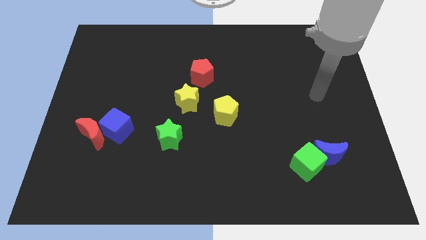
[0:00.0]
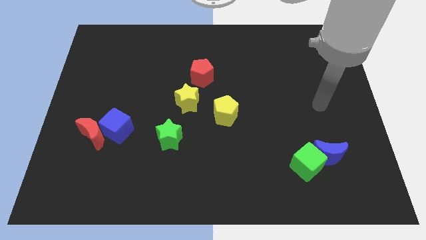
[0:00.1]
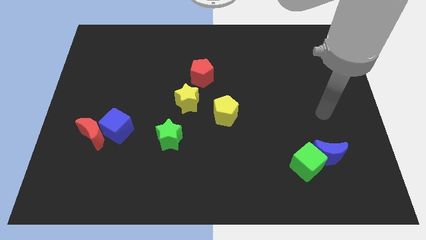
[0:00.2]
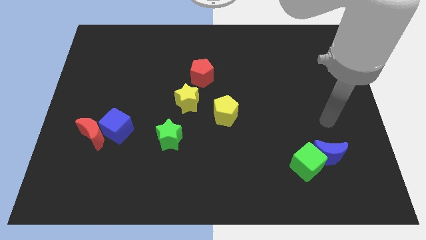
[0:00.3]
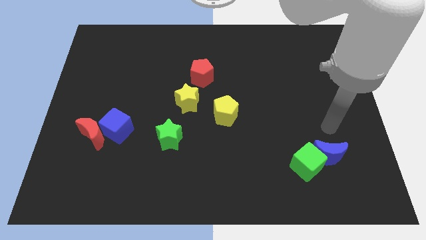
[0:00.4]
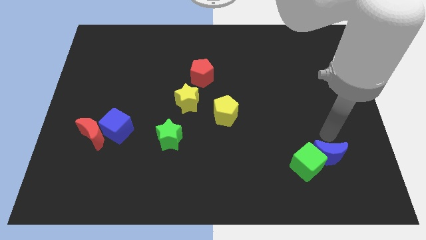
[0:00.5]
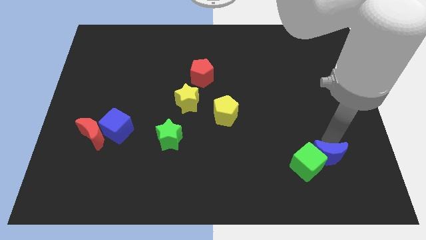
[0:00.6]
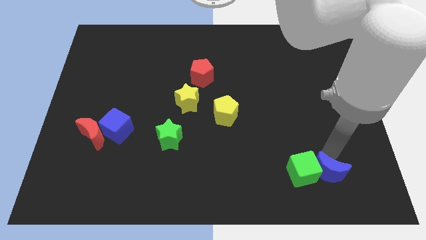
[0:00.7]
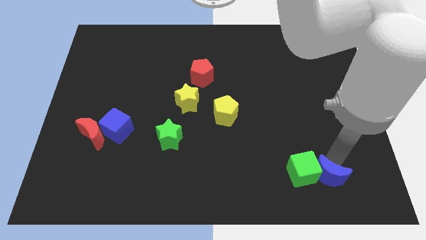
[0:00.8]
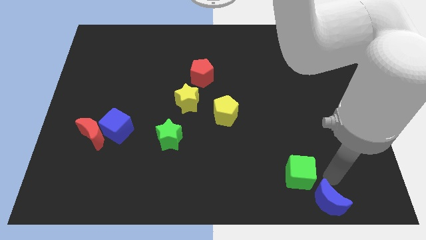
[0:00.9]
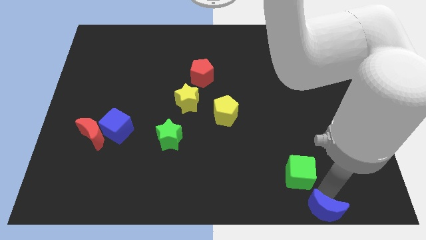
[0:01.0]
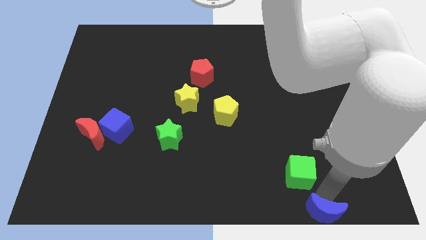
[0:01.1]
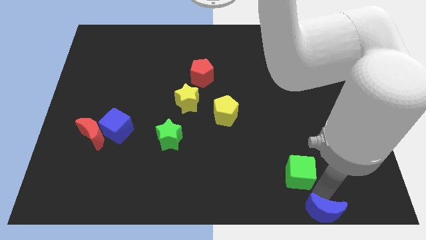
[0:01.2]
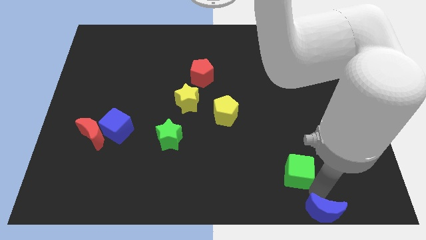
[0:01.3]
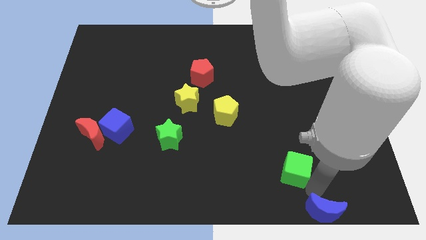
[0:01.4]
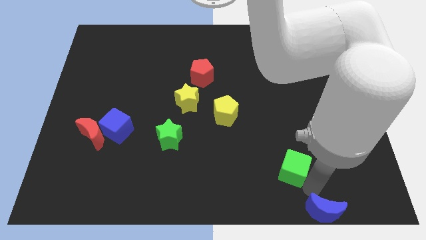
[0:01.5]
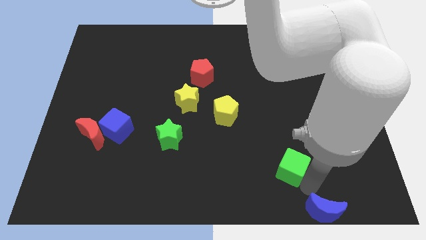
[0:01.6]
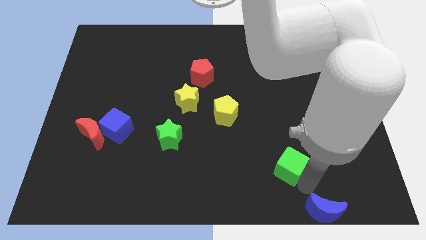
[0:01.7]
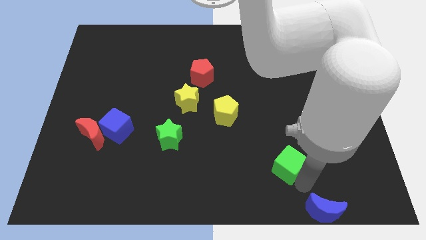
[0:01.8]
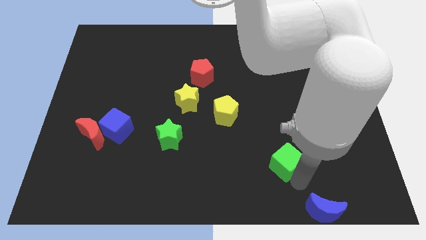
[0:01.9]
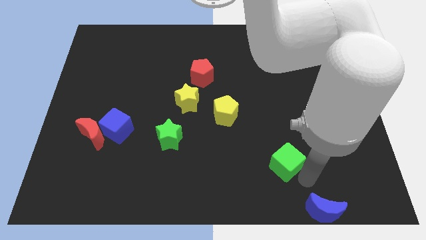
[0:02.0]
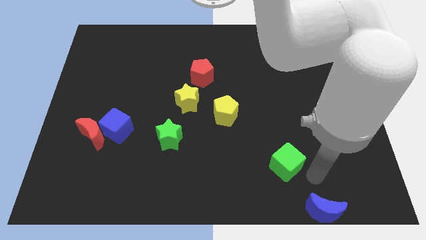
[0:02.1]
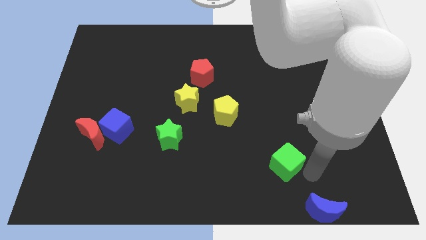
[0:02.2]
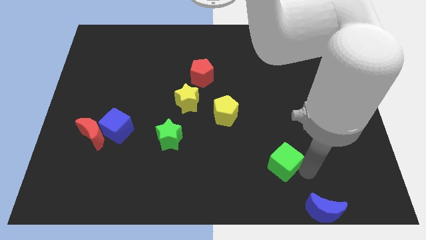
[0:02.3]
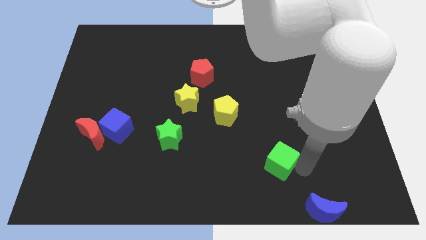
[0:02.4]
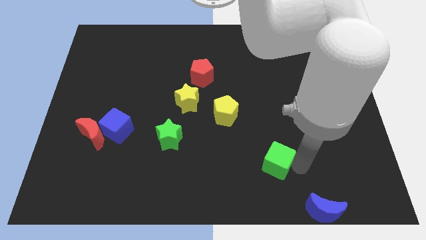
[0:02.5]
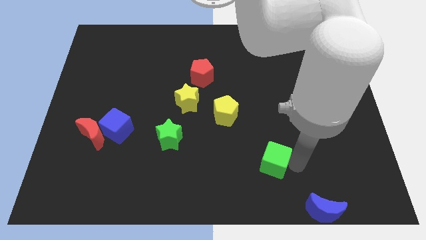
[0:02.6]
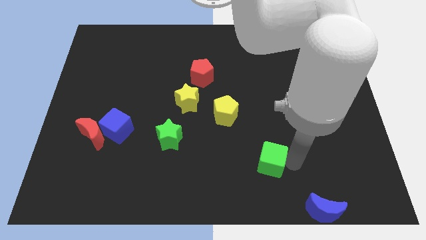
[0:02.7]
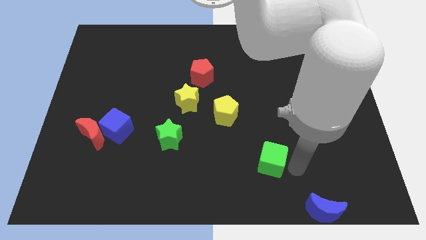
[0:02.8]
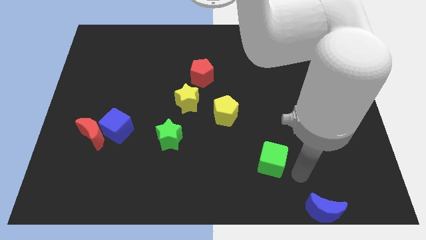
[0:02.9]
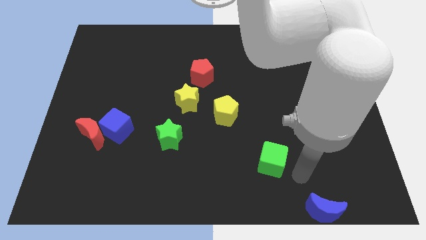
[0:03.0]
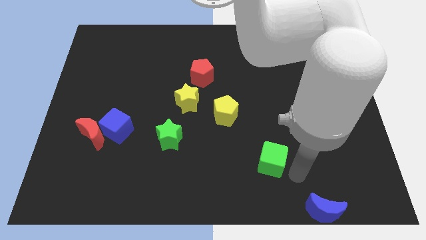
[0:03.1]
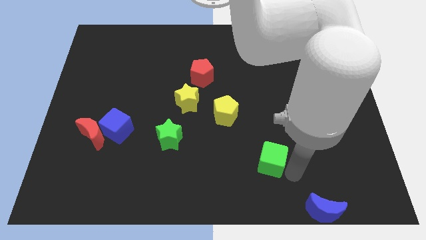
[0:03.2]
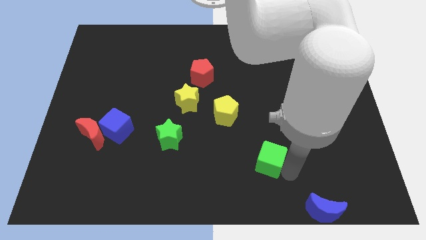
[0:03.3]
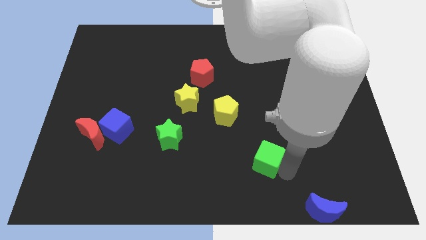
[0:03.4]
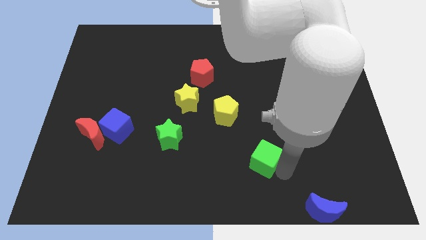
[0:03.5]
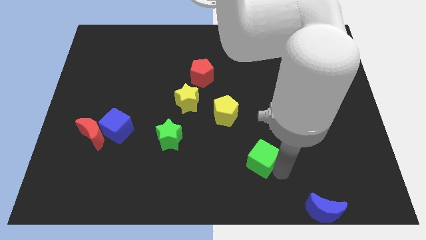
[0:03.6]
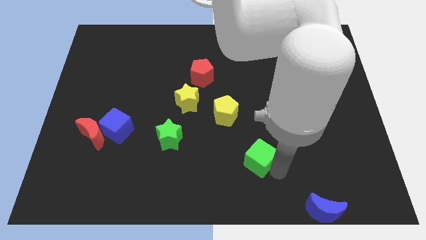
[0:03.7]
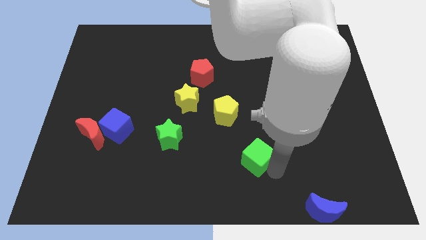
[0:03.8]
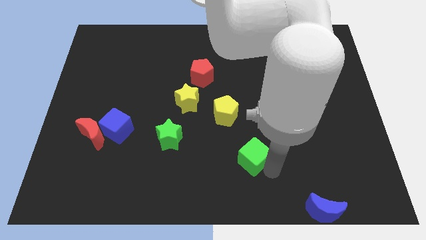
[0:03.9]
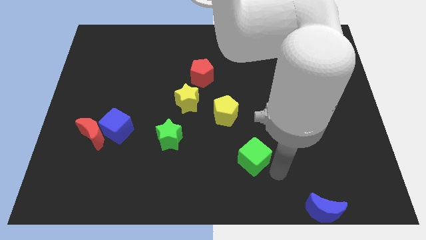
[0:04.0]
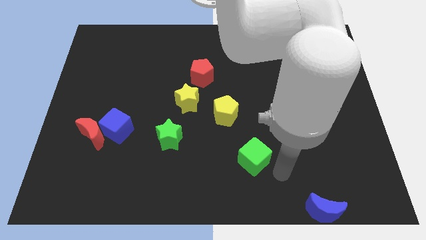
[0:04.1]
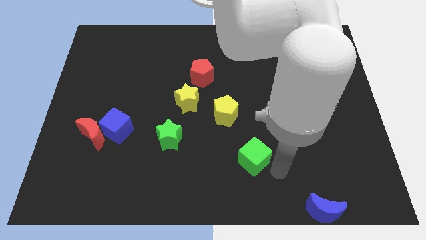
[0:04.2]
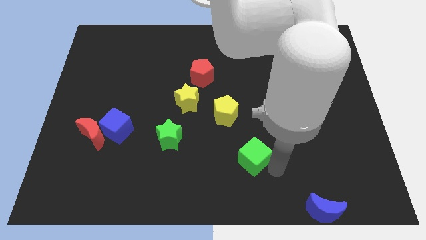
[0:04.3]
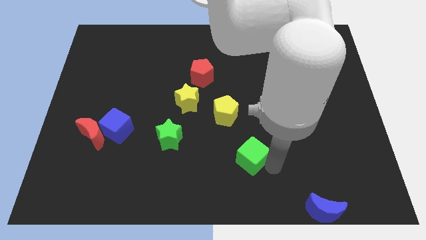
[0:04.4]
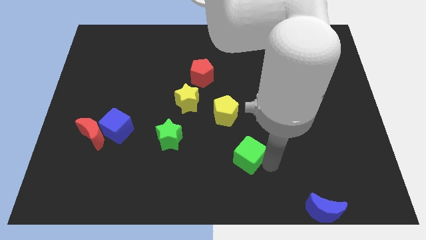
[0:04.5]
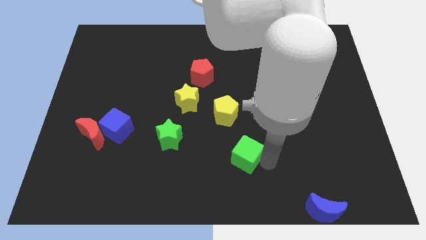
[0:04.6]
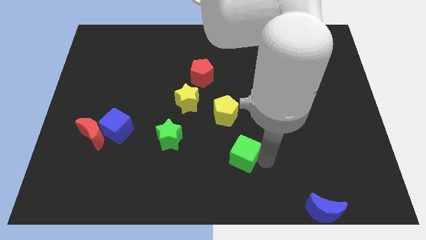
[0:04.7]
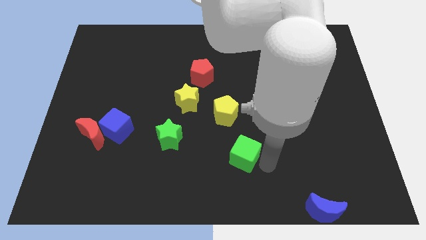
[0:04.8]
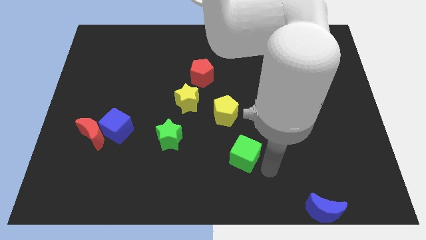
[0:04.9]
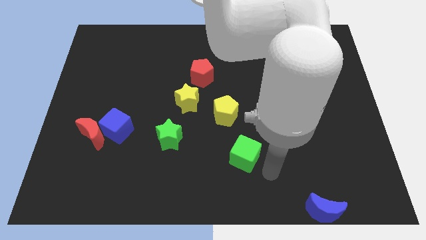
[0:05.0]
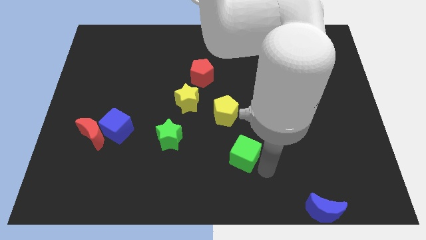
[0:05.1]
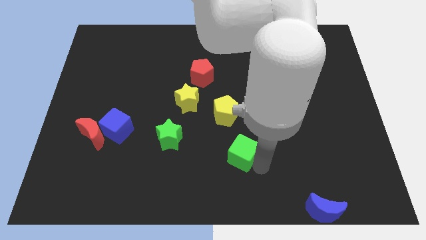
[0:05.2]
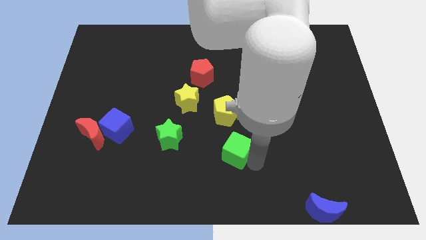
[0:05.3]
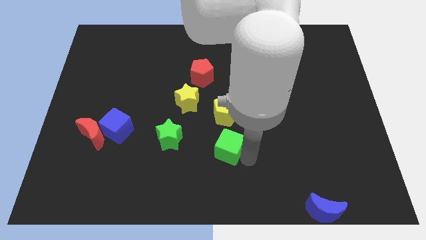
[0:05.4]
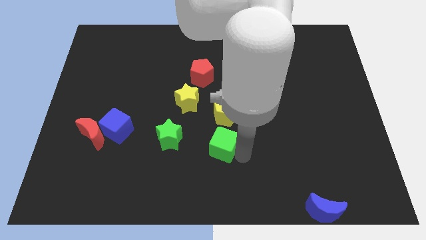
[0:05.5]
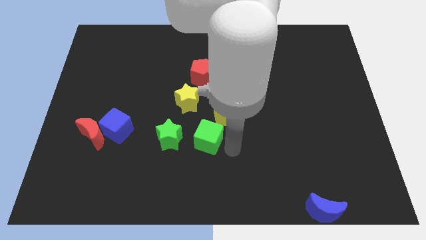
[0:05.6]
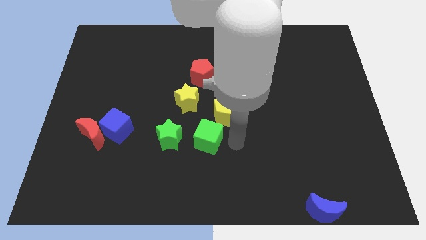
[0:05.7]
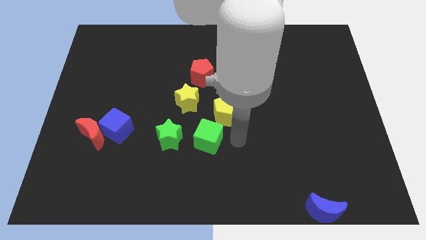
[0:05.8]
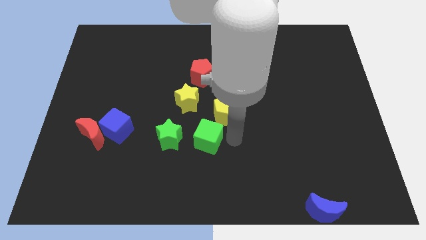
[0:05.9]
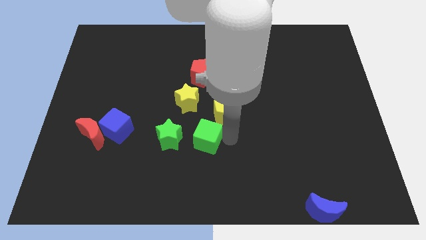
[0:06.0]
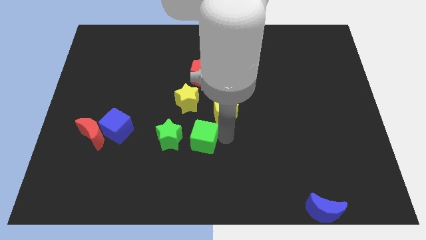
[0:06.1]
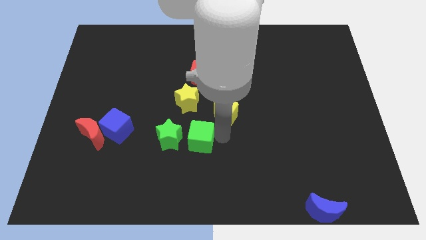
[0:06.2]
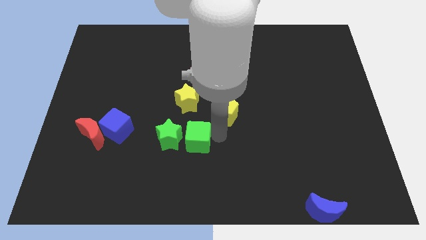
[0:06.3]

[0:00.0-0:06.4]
push the green cube to the green star

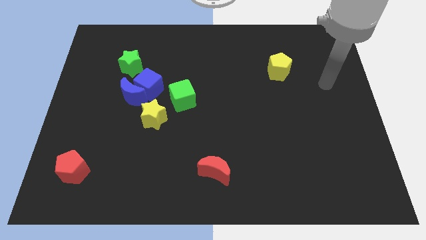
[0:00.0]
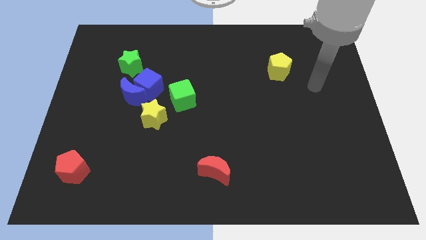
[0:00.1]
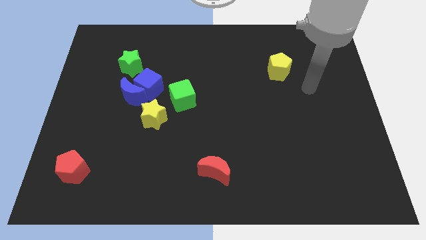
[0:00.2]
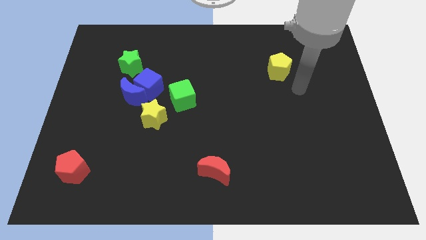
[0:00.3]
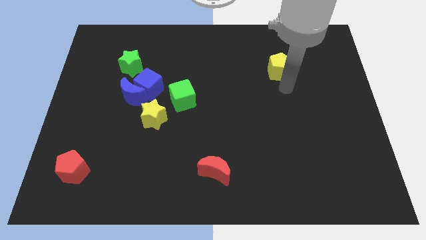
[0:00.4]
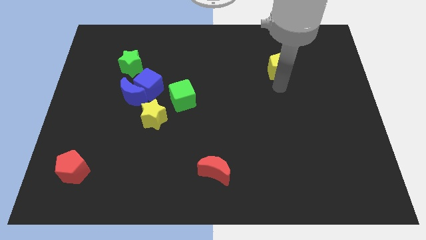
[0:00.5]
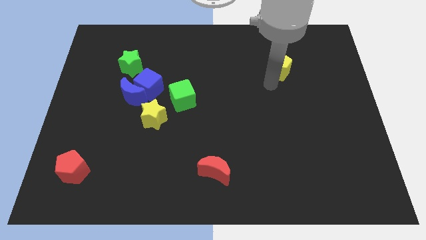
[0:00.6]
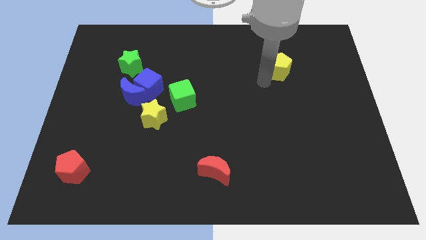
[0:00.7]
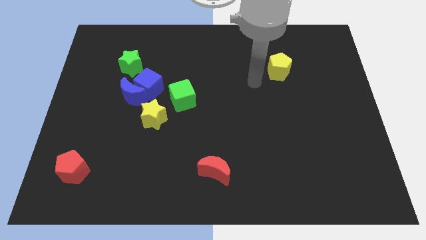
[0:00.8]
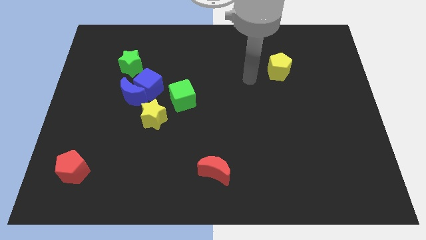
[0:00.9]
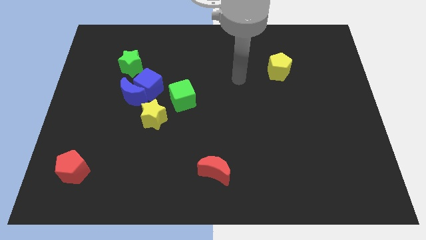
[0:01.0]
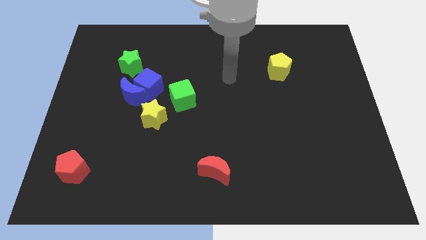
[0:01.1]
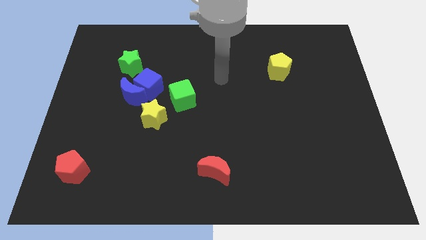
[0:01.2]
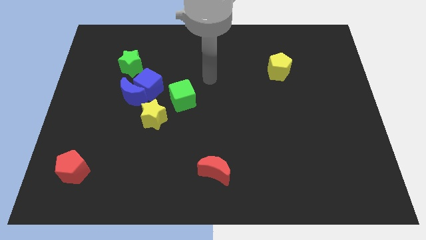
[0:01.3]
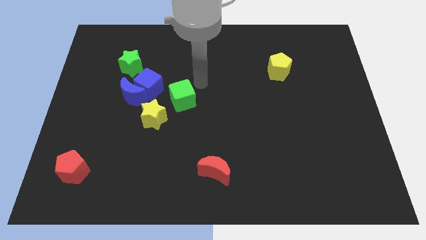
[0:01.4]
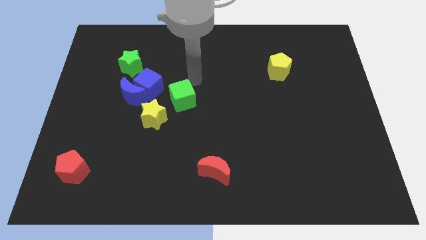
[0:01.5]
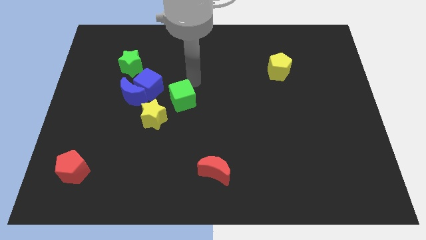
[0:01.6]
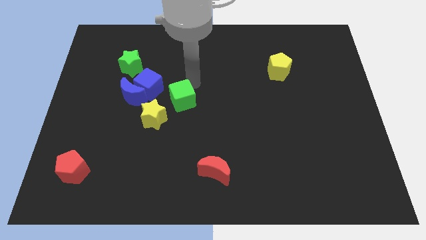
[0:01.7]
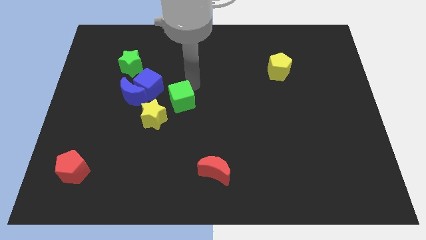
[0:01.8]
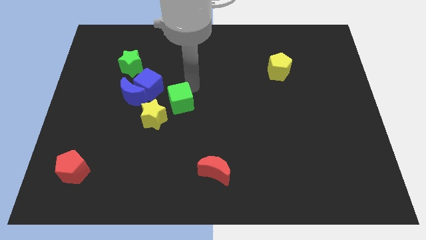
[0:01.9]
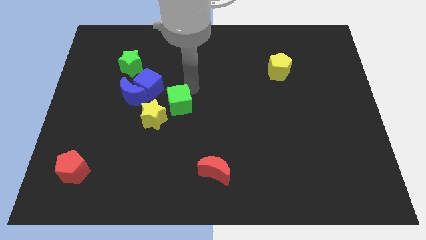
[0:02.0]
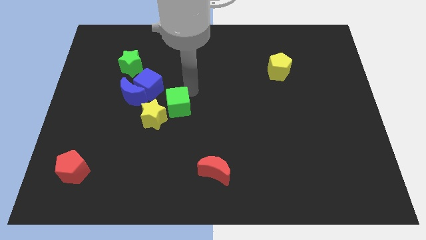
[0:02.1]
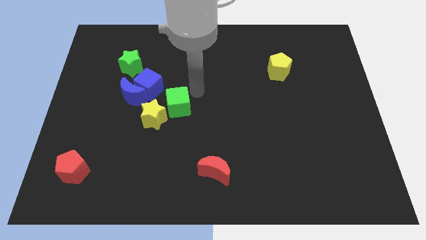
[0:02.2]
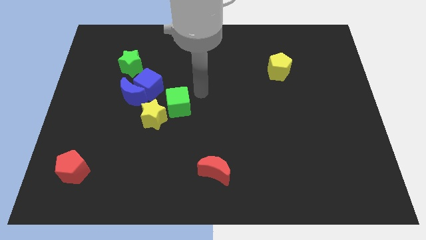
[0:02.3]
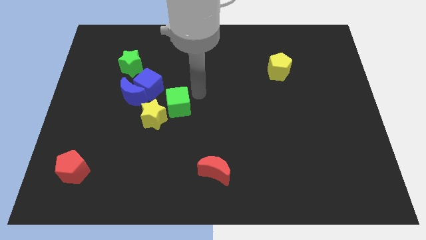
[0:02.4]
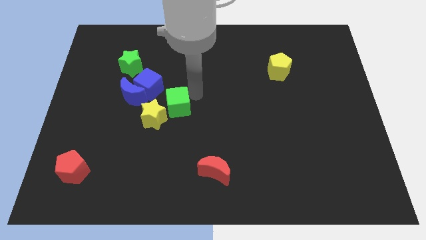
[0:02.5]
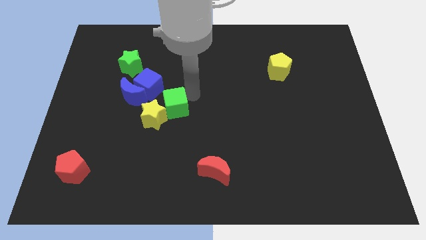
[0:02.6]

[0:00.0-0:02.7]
put the green cube next to the yellow star
